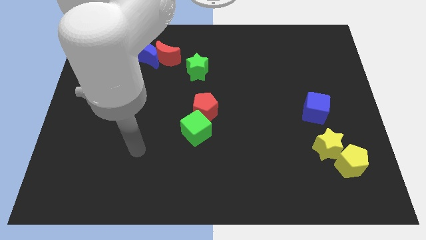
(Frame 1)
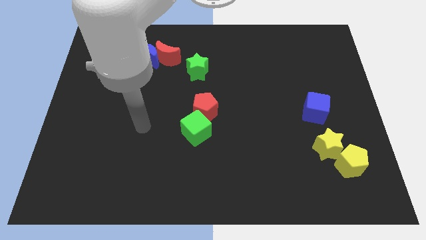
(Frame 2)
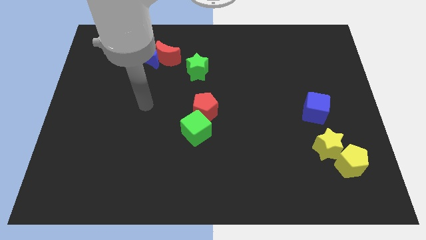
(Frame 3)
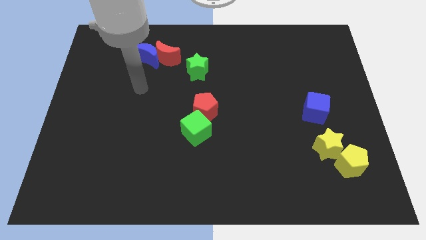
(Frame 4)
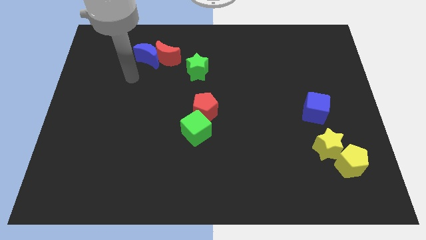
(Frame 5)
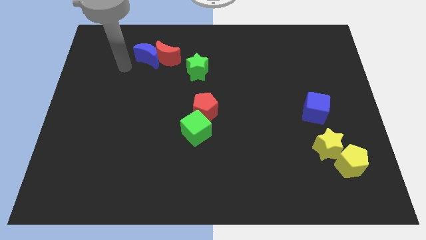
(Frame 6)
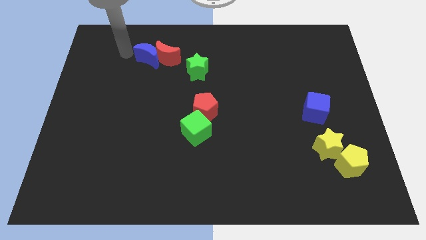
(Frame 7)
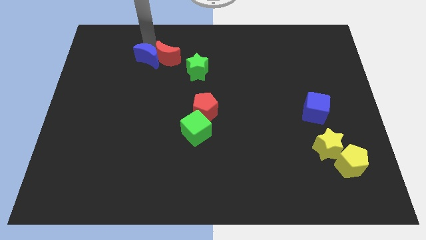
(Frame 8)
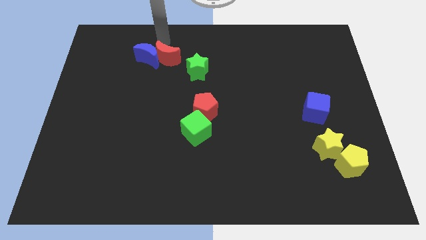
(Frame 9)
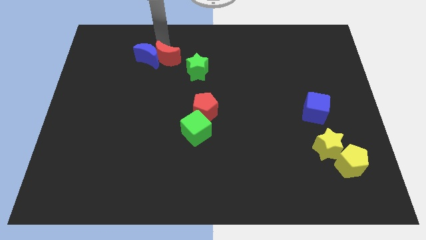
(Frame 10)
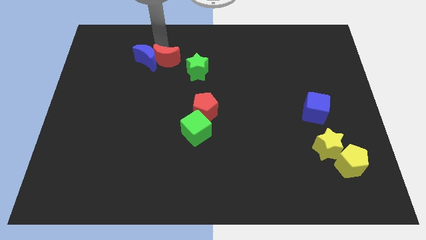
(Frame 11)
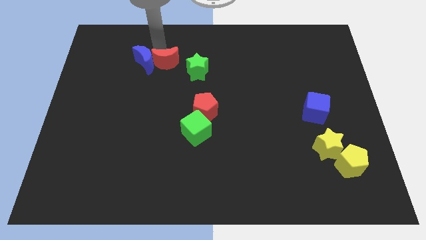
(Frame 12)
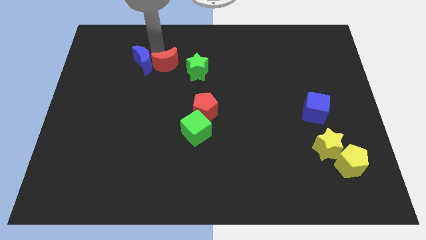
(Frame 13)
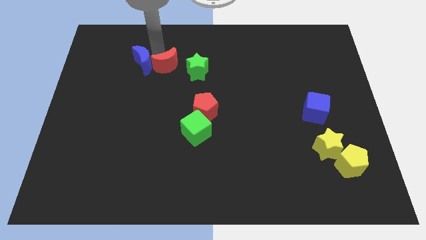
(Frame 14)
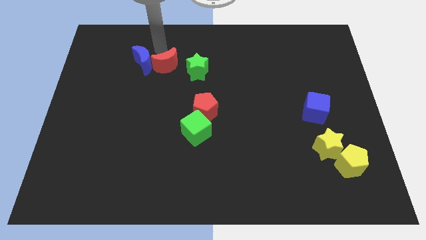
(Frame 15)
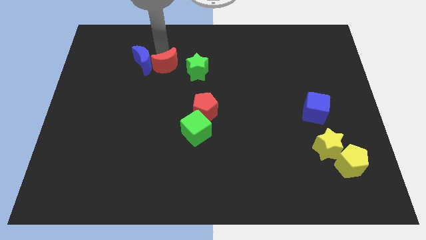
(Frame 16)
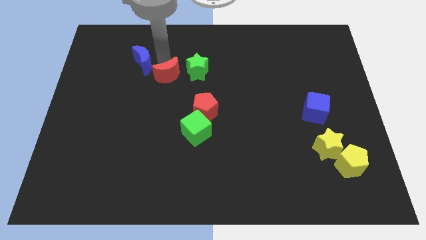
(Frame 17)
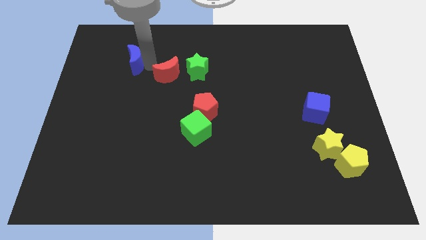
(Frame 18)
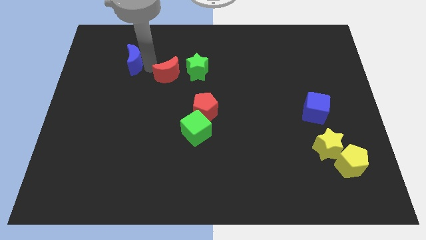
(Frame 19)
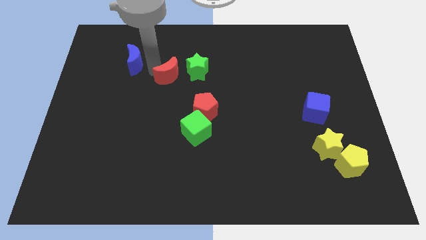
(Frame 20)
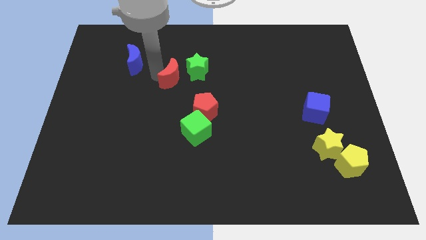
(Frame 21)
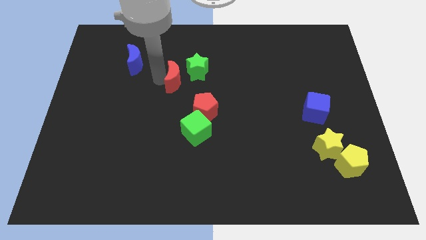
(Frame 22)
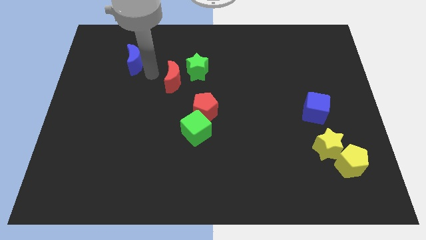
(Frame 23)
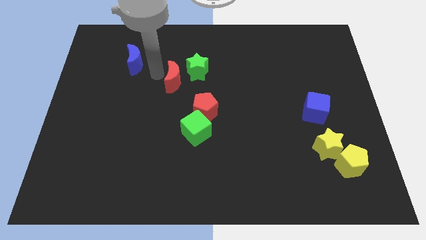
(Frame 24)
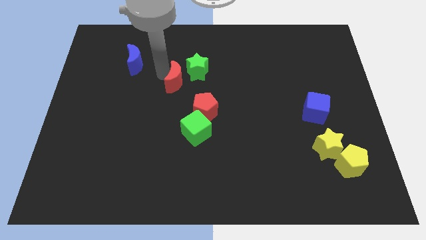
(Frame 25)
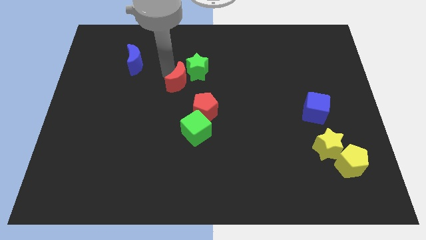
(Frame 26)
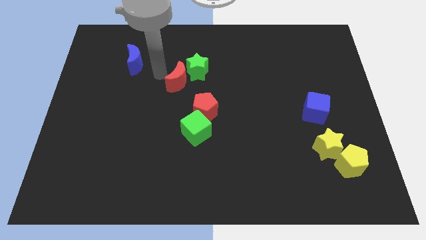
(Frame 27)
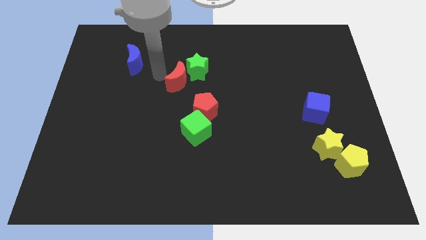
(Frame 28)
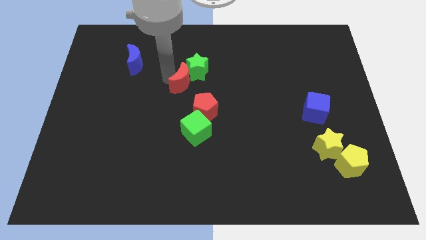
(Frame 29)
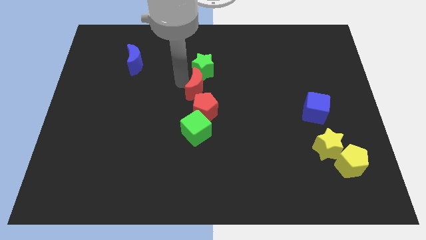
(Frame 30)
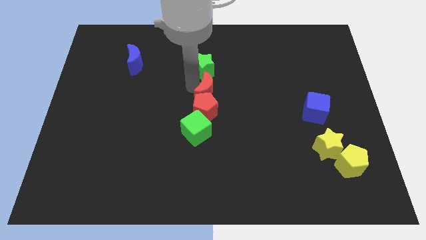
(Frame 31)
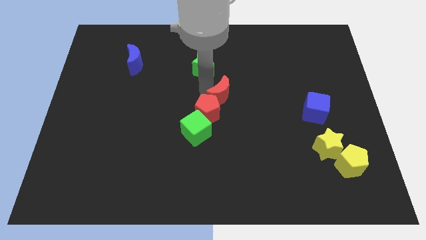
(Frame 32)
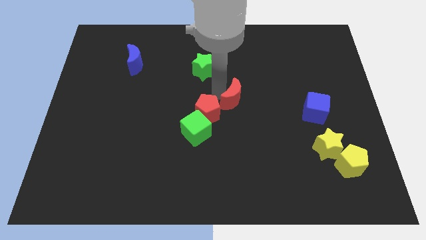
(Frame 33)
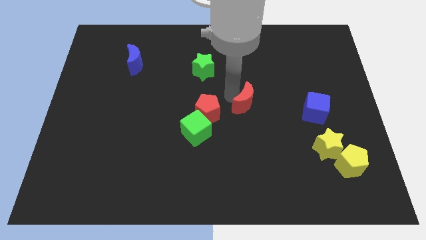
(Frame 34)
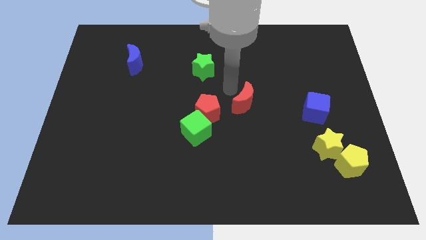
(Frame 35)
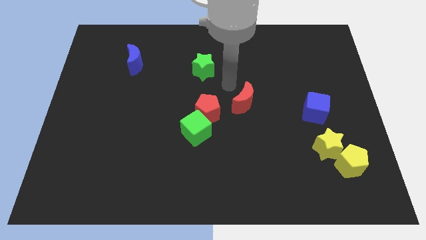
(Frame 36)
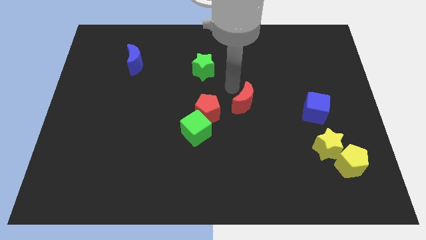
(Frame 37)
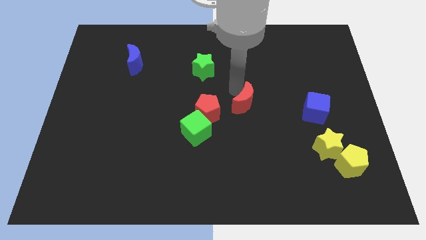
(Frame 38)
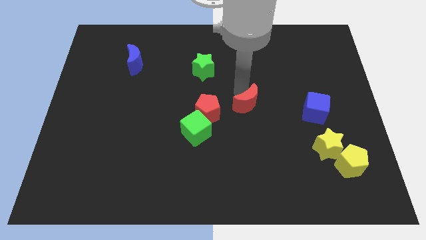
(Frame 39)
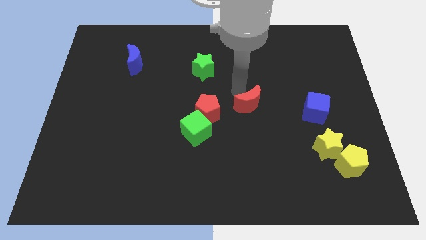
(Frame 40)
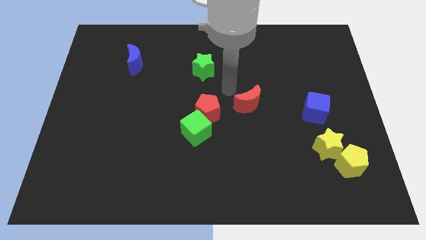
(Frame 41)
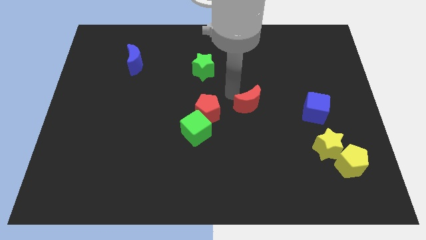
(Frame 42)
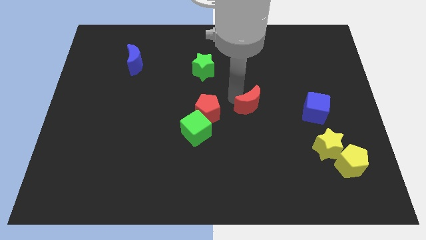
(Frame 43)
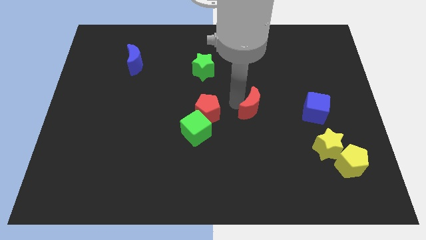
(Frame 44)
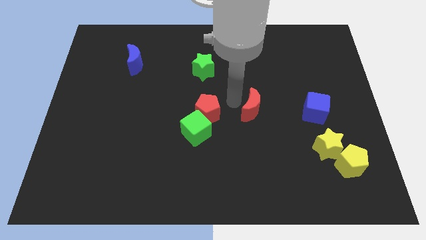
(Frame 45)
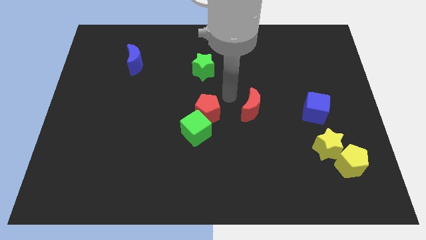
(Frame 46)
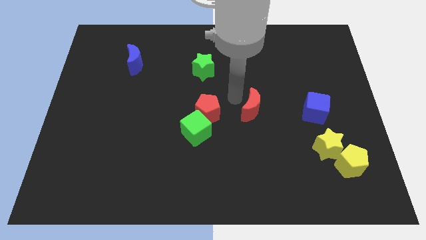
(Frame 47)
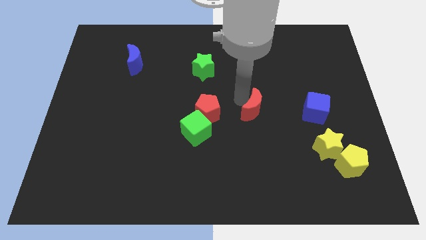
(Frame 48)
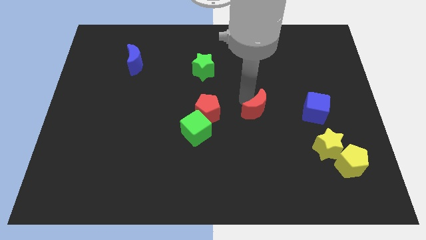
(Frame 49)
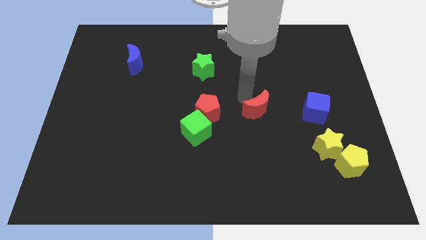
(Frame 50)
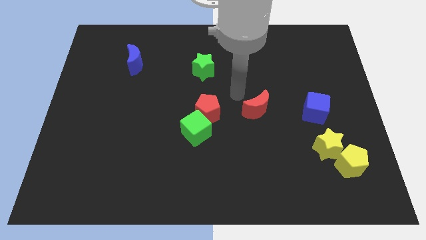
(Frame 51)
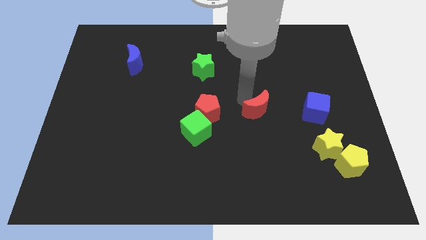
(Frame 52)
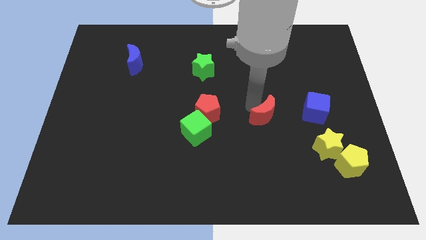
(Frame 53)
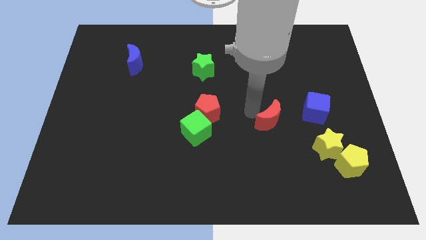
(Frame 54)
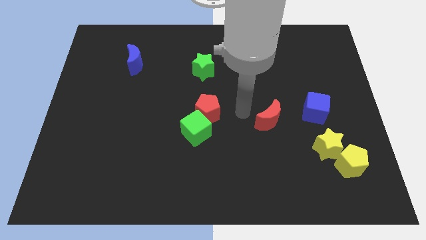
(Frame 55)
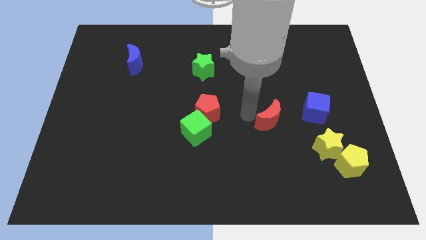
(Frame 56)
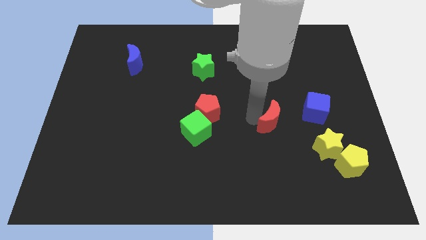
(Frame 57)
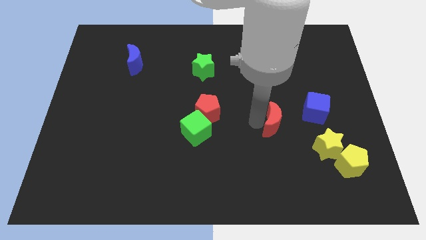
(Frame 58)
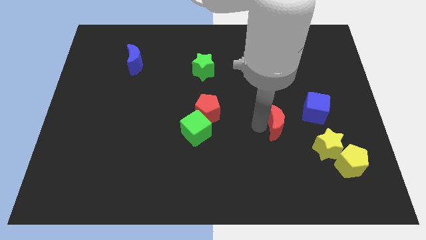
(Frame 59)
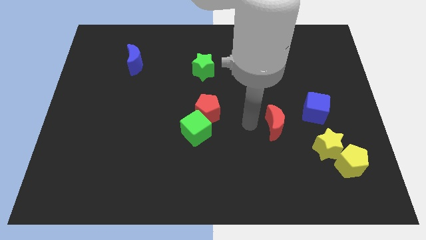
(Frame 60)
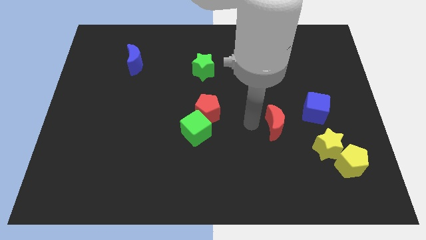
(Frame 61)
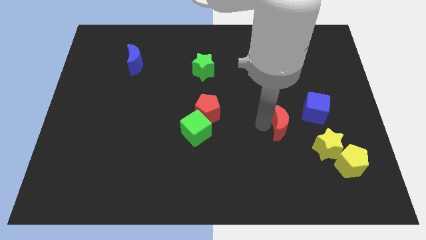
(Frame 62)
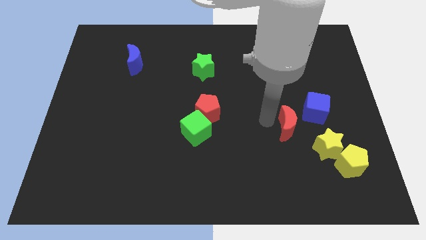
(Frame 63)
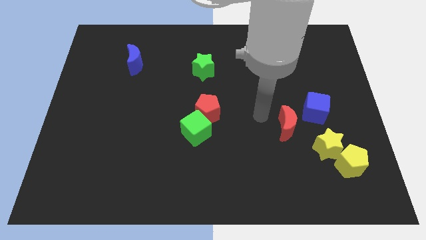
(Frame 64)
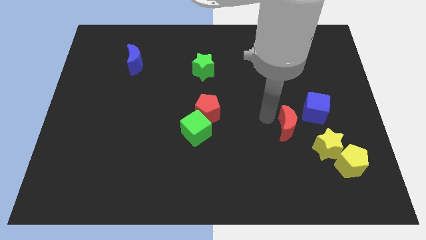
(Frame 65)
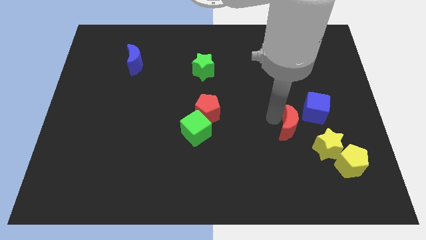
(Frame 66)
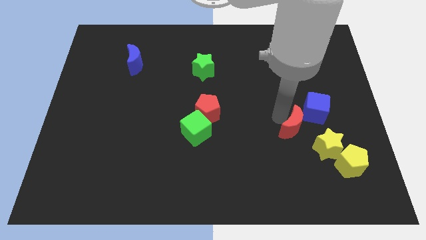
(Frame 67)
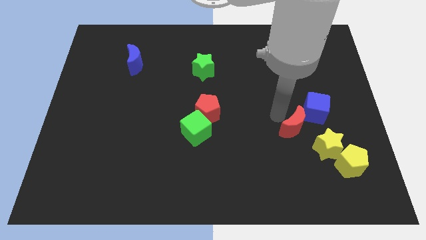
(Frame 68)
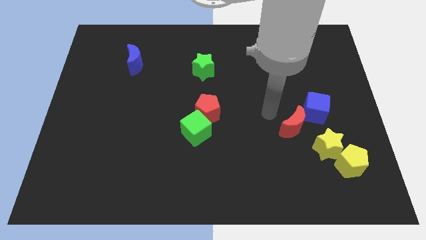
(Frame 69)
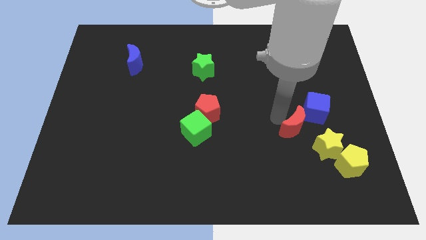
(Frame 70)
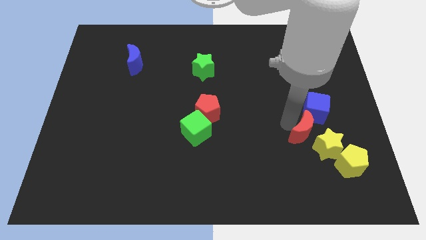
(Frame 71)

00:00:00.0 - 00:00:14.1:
move the red moon to the yellow star

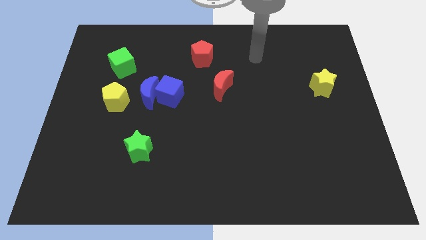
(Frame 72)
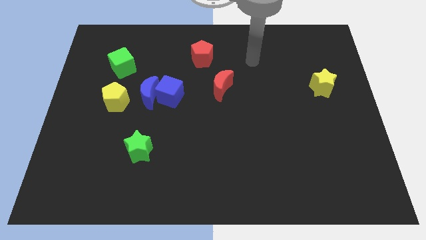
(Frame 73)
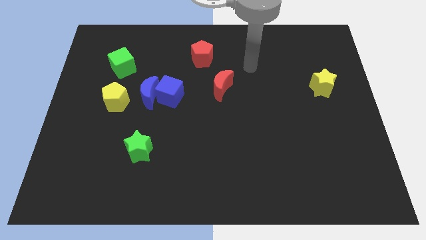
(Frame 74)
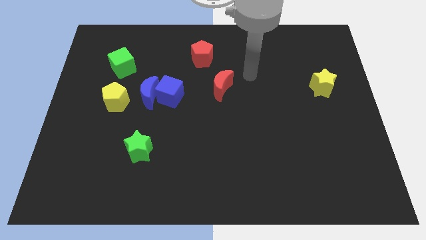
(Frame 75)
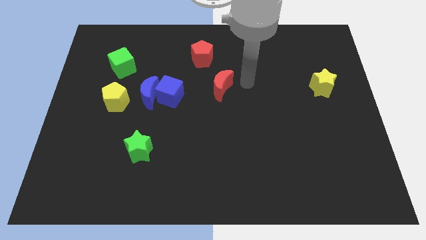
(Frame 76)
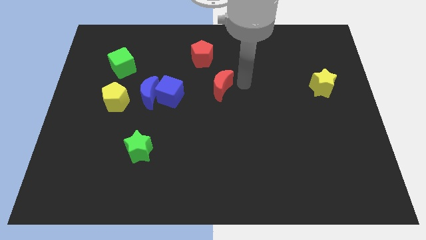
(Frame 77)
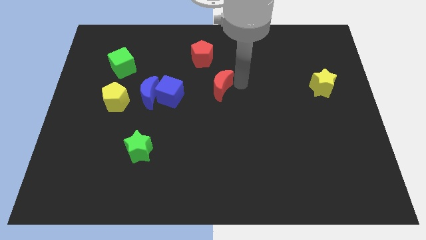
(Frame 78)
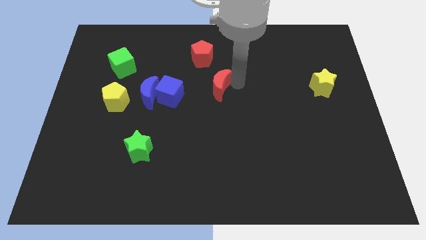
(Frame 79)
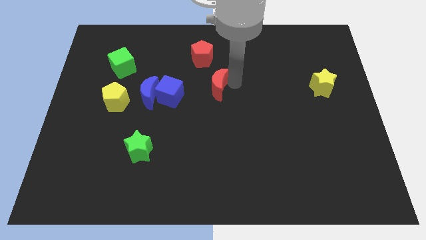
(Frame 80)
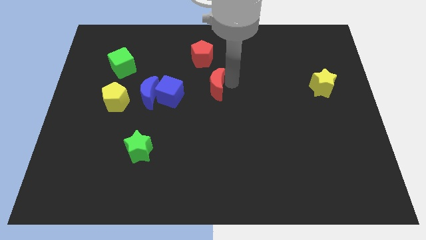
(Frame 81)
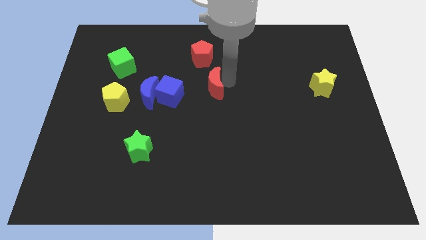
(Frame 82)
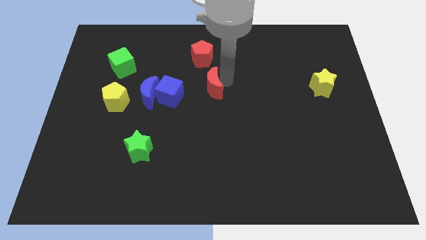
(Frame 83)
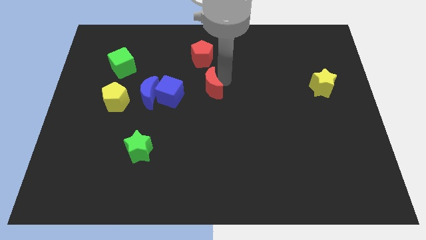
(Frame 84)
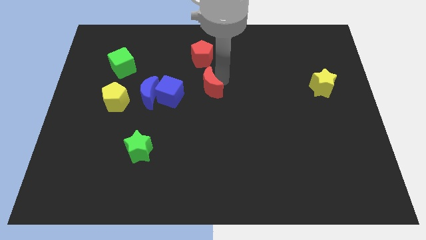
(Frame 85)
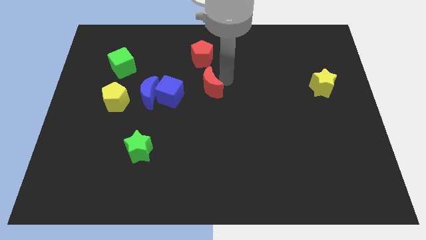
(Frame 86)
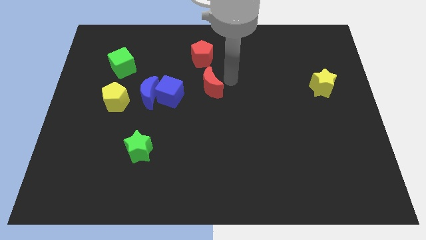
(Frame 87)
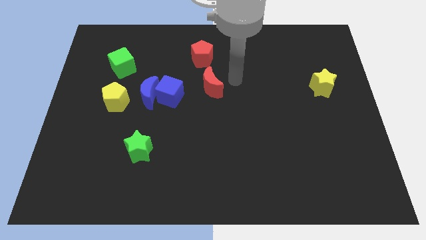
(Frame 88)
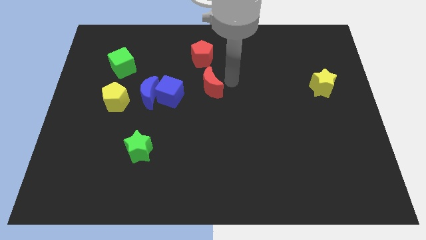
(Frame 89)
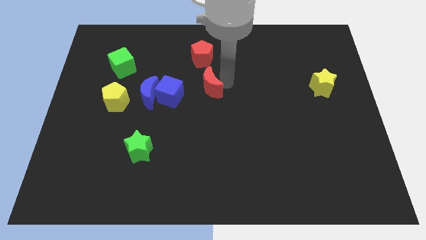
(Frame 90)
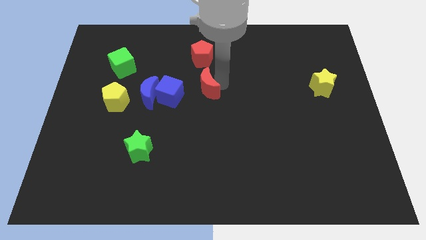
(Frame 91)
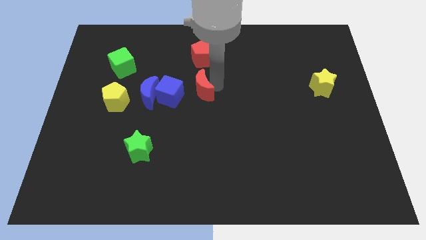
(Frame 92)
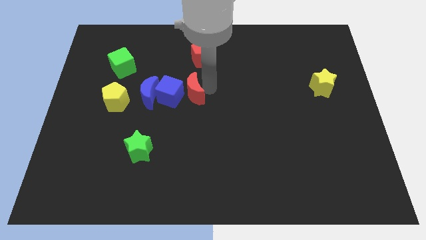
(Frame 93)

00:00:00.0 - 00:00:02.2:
move the red moon to the blue cube
